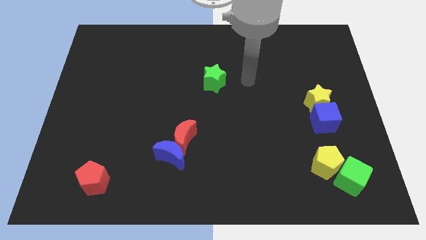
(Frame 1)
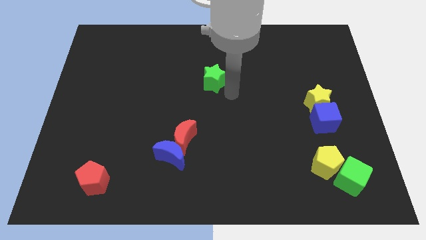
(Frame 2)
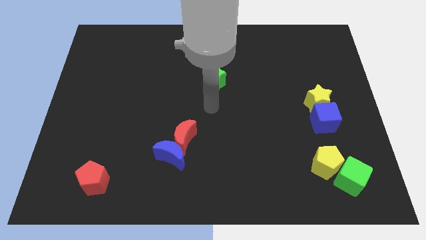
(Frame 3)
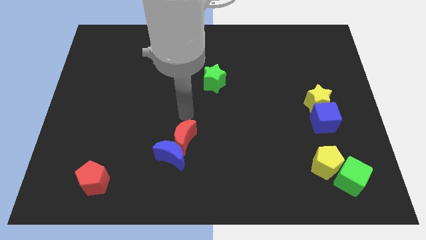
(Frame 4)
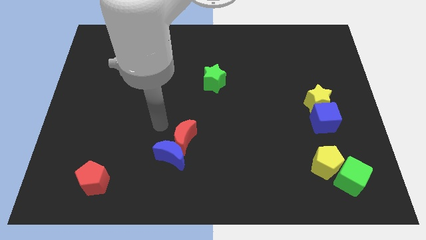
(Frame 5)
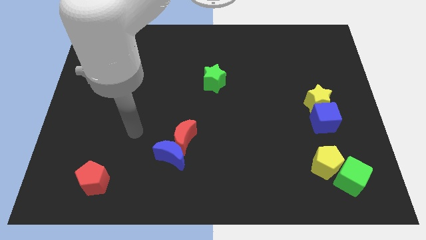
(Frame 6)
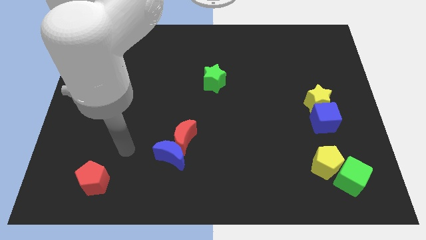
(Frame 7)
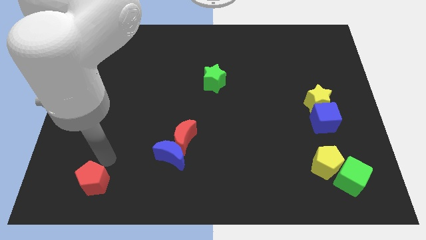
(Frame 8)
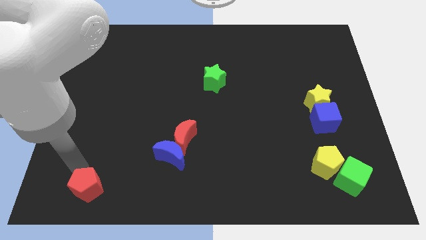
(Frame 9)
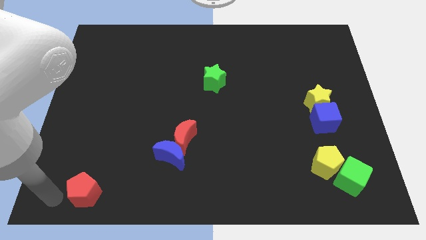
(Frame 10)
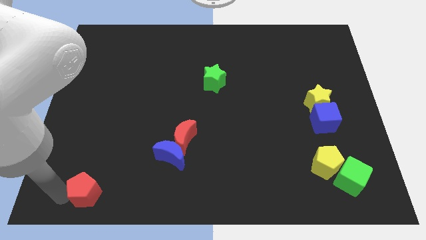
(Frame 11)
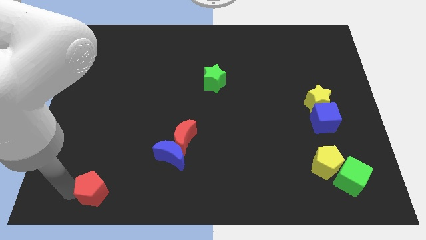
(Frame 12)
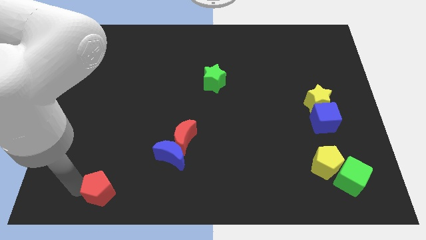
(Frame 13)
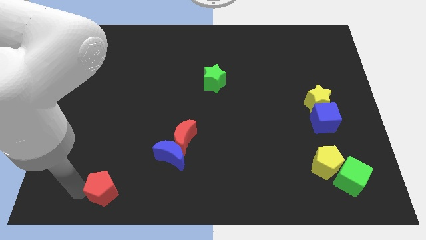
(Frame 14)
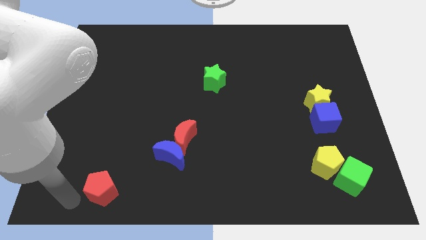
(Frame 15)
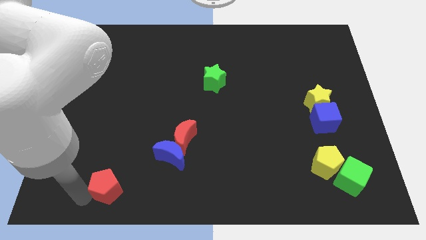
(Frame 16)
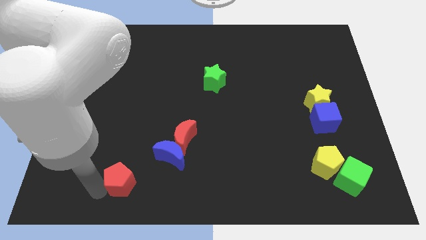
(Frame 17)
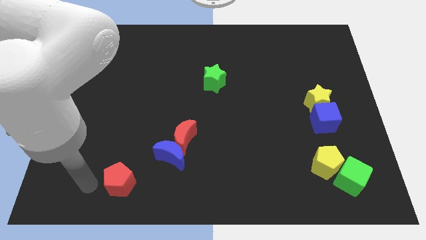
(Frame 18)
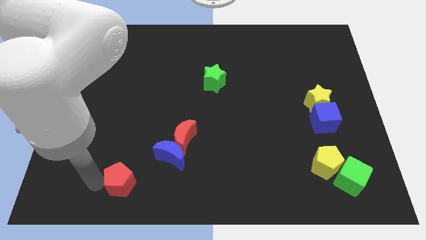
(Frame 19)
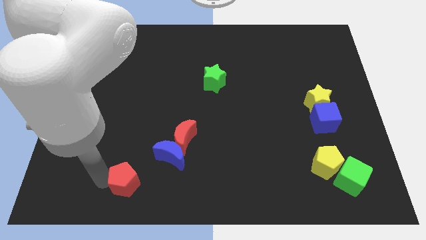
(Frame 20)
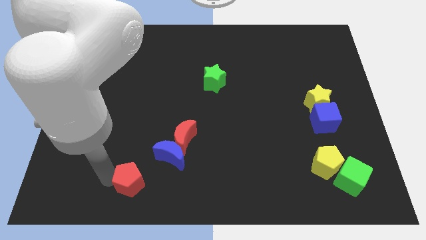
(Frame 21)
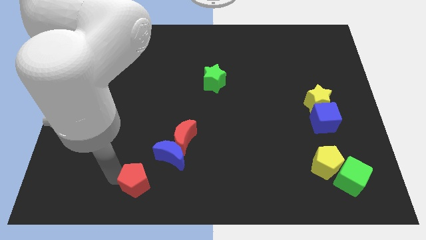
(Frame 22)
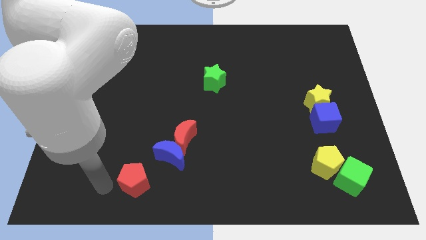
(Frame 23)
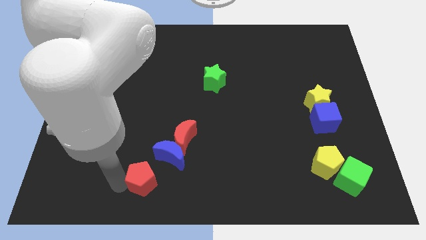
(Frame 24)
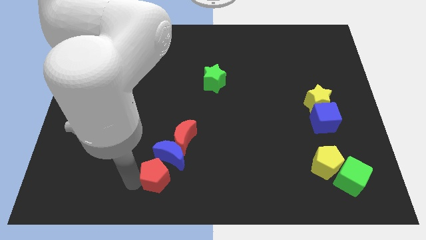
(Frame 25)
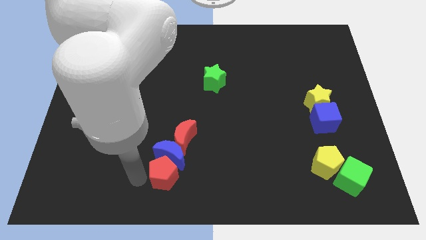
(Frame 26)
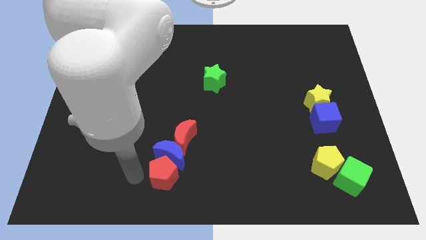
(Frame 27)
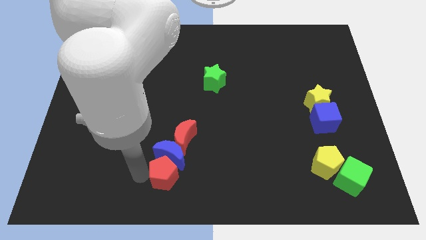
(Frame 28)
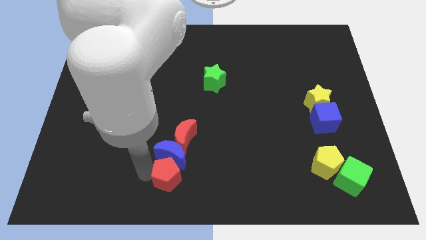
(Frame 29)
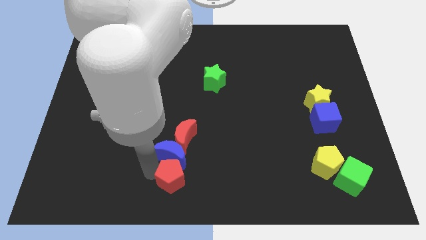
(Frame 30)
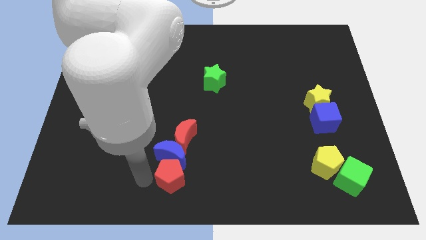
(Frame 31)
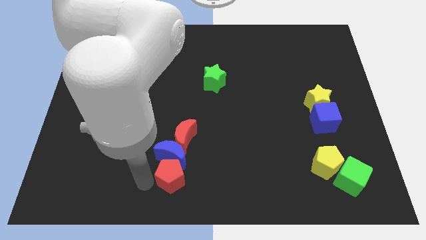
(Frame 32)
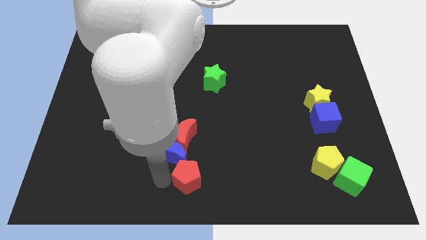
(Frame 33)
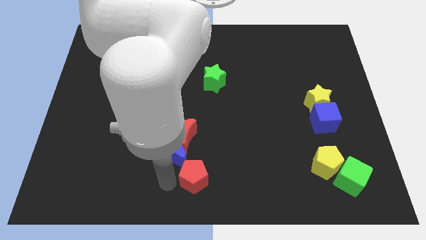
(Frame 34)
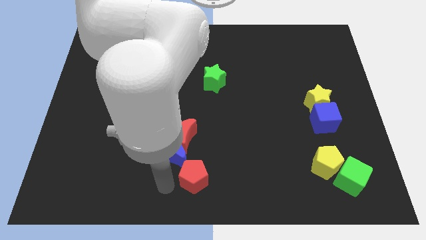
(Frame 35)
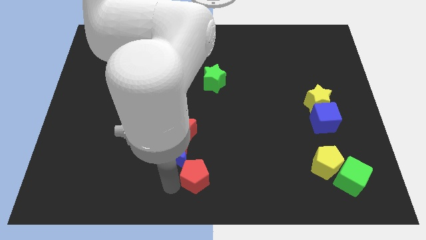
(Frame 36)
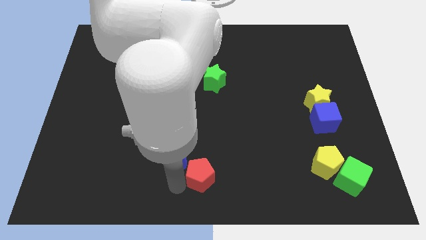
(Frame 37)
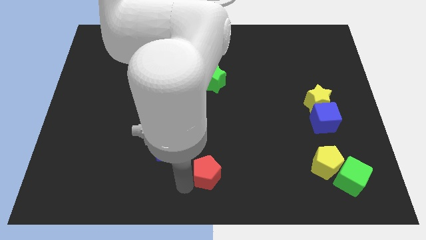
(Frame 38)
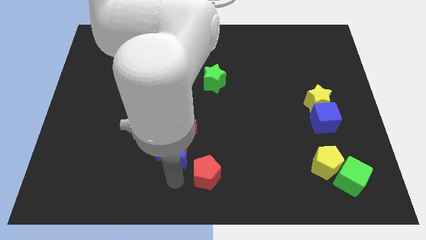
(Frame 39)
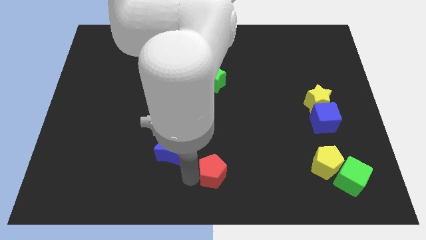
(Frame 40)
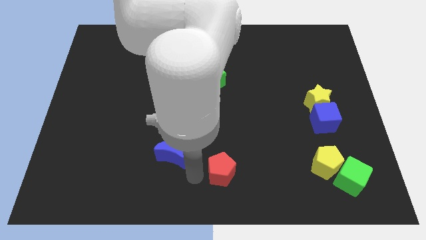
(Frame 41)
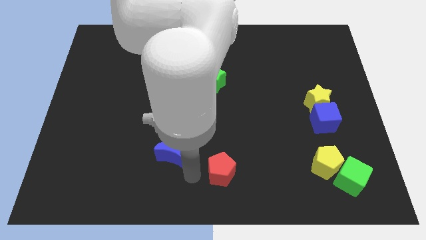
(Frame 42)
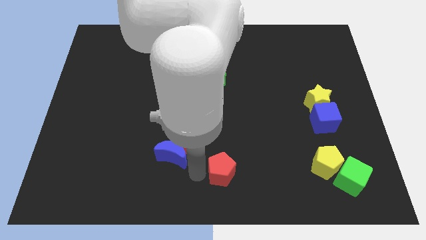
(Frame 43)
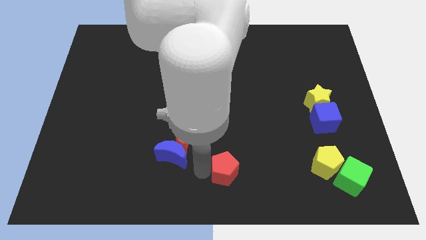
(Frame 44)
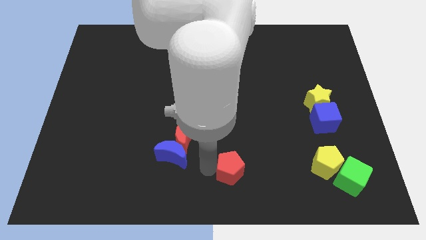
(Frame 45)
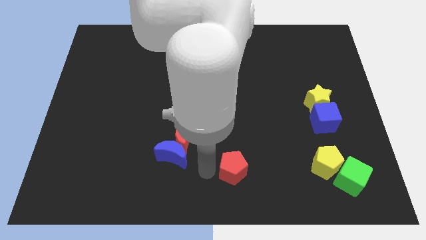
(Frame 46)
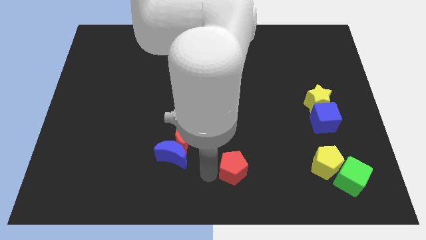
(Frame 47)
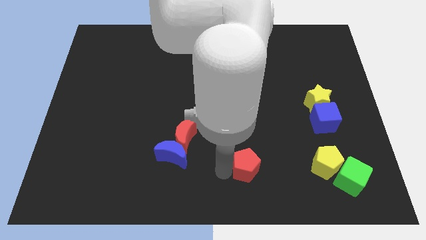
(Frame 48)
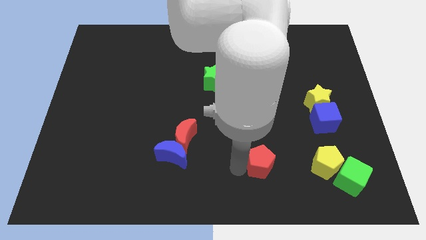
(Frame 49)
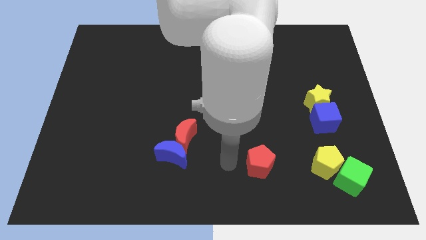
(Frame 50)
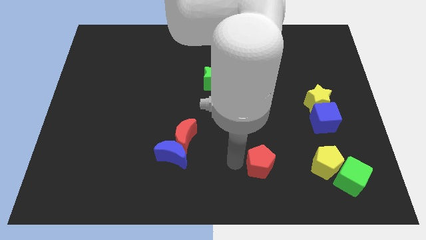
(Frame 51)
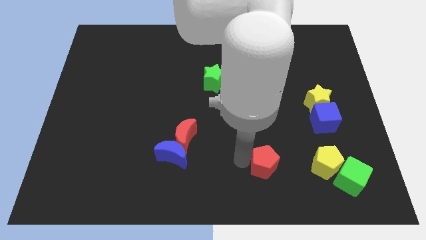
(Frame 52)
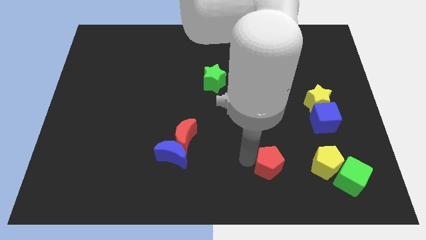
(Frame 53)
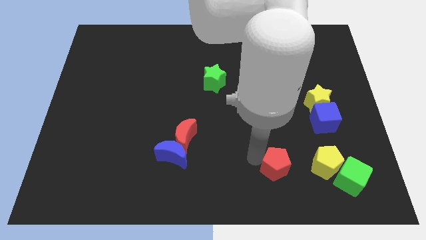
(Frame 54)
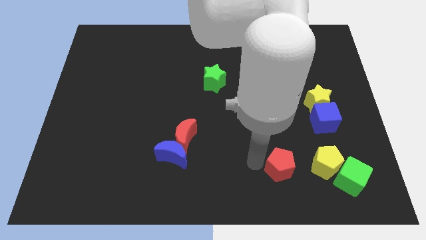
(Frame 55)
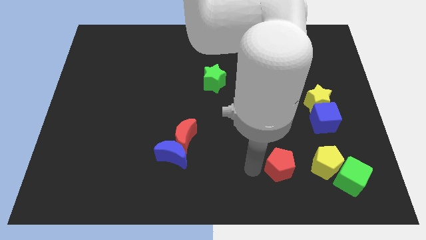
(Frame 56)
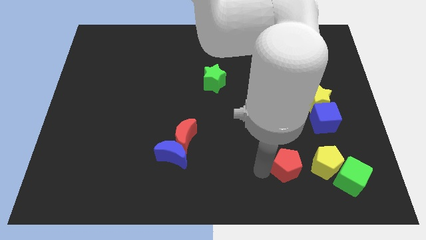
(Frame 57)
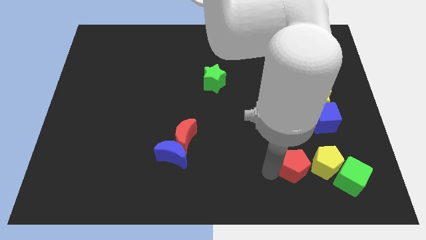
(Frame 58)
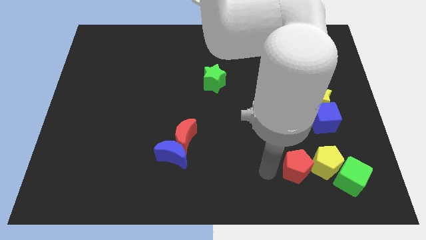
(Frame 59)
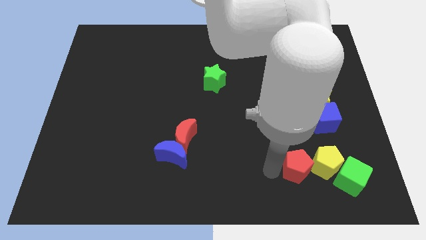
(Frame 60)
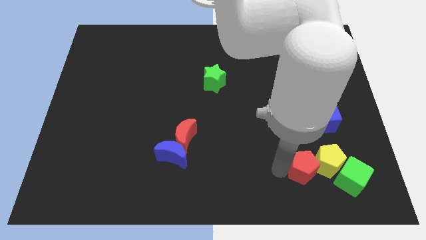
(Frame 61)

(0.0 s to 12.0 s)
move the red pentagon towards the yellow pentagon

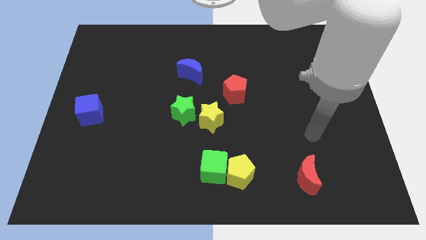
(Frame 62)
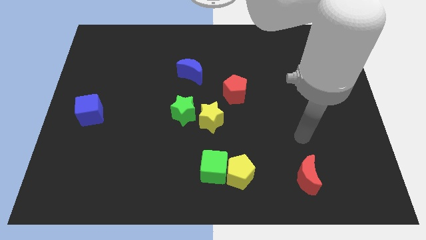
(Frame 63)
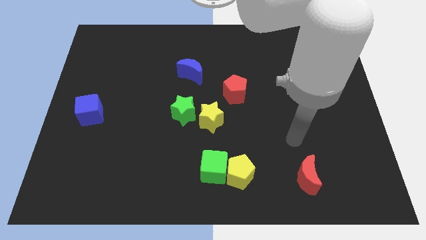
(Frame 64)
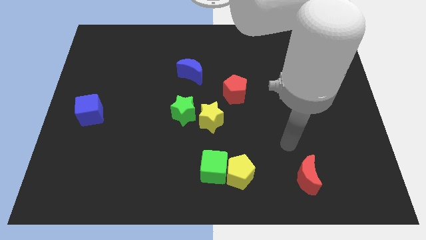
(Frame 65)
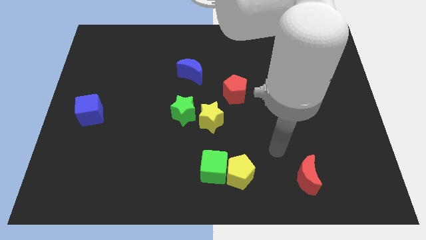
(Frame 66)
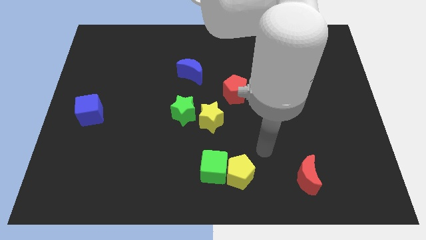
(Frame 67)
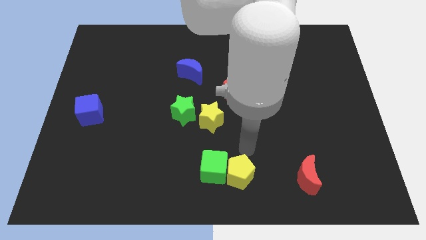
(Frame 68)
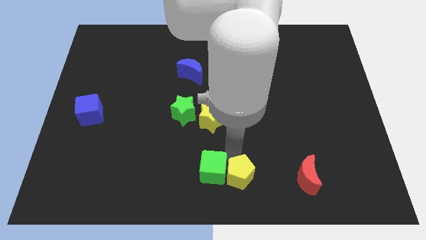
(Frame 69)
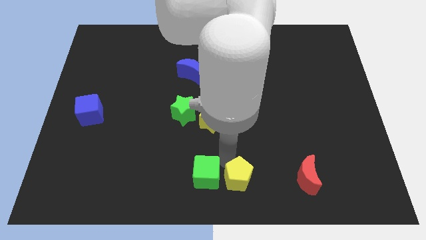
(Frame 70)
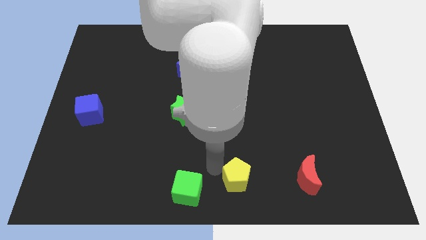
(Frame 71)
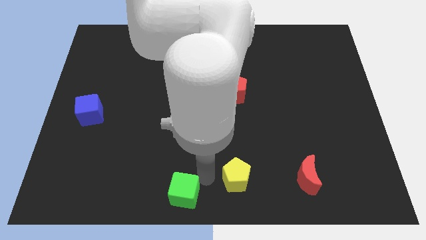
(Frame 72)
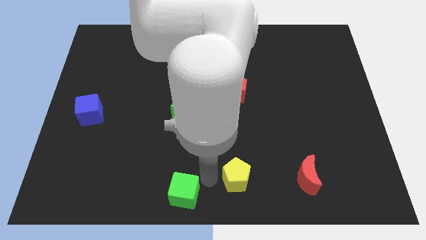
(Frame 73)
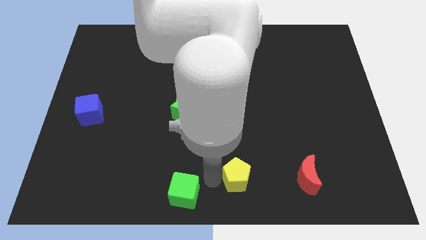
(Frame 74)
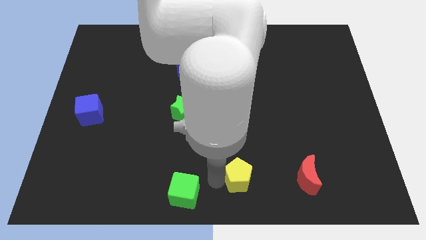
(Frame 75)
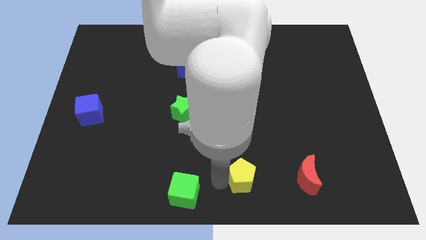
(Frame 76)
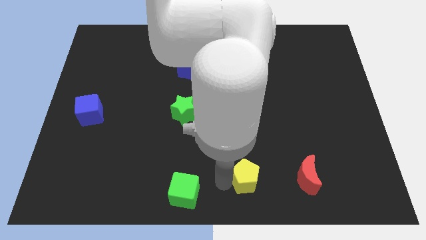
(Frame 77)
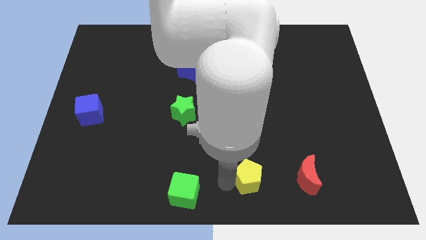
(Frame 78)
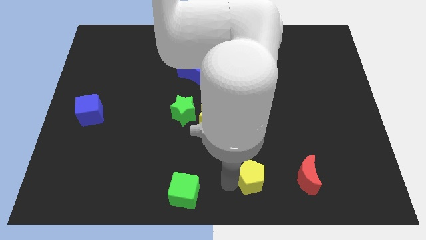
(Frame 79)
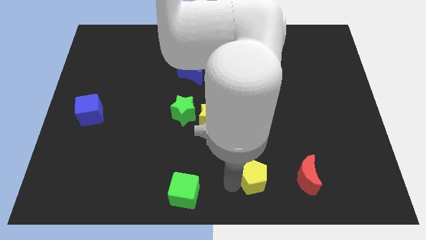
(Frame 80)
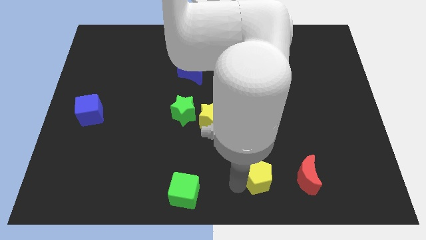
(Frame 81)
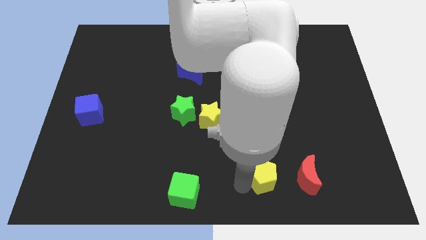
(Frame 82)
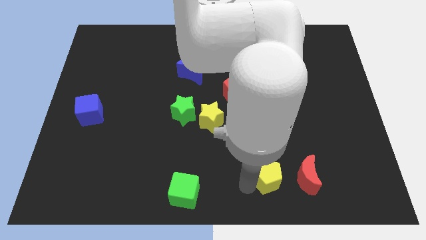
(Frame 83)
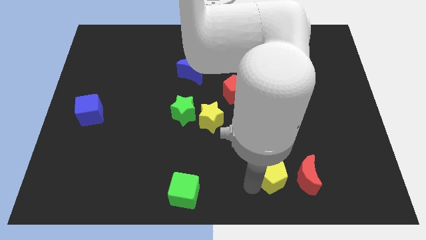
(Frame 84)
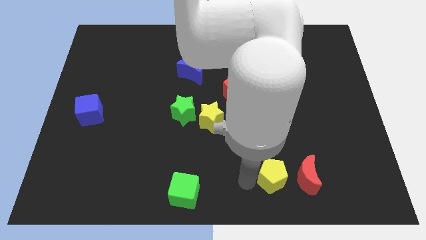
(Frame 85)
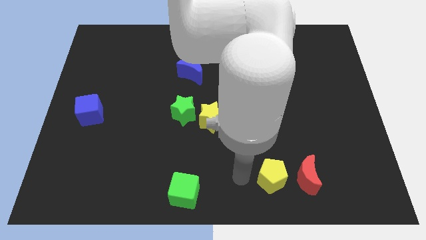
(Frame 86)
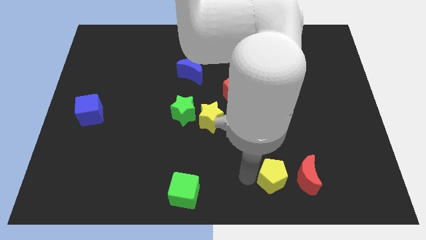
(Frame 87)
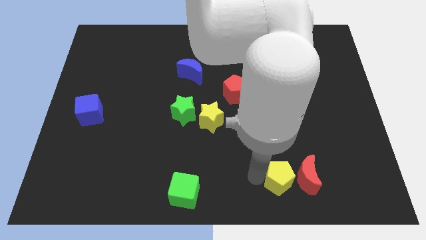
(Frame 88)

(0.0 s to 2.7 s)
put the yellow pentagon towards the red moon
